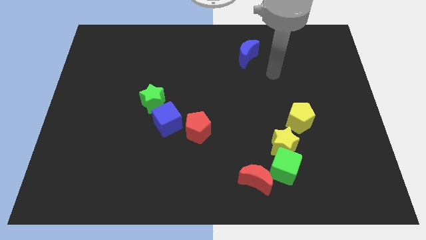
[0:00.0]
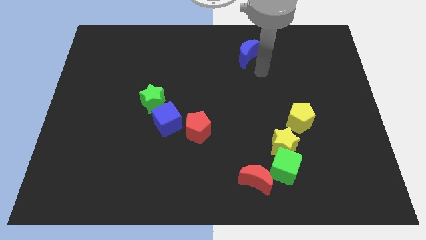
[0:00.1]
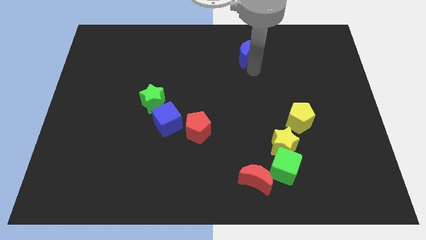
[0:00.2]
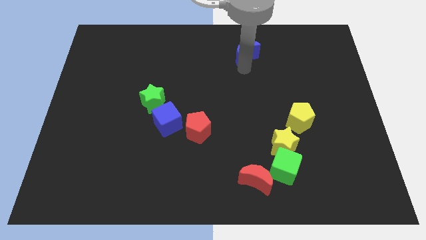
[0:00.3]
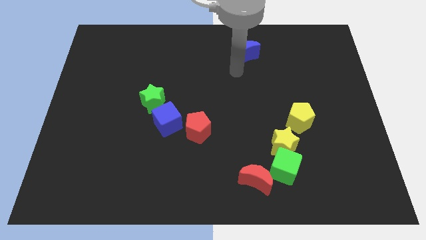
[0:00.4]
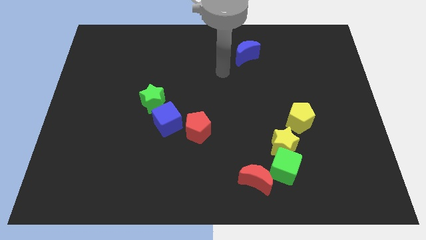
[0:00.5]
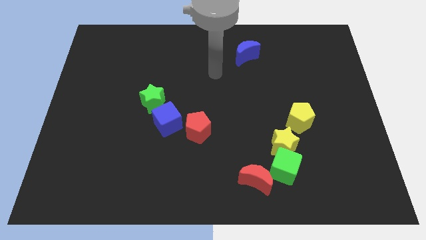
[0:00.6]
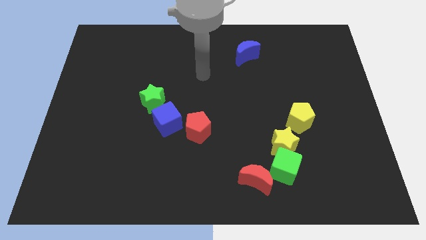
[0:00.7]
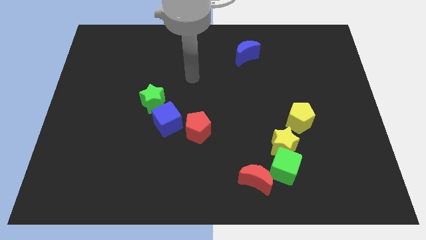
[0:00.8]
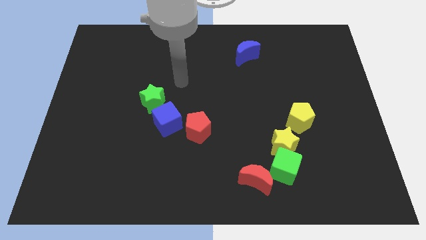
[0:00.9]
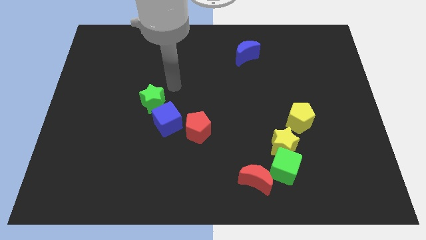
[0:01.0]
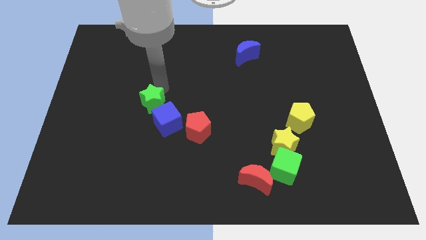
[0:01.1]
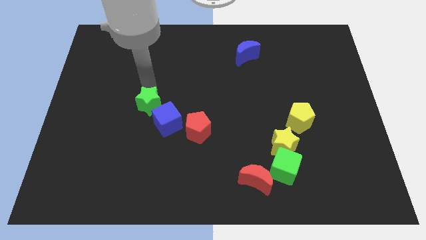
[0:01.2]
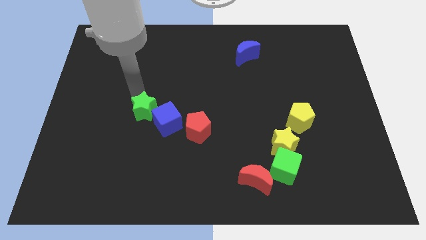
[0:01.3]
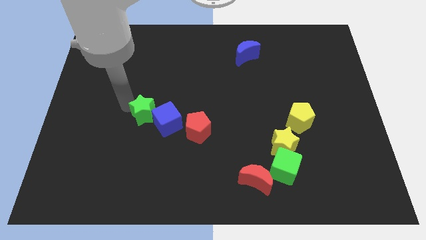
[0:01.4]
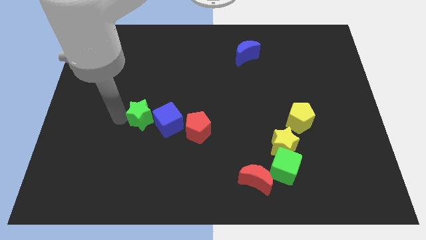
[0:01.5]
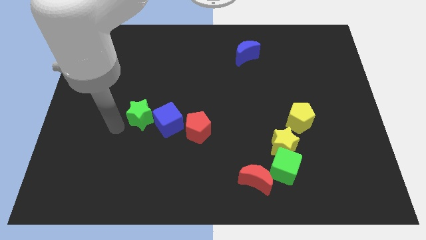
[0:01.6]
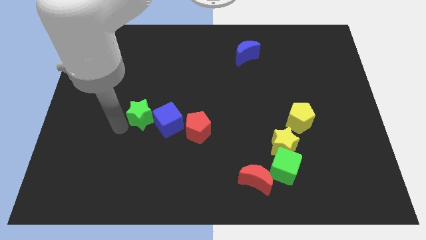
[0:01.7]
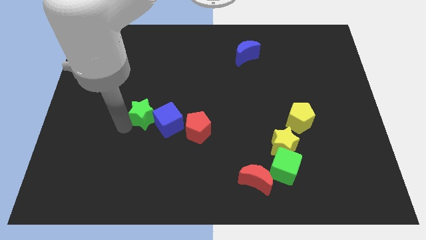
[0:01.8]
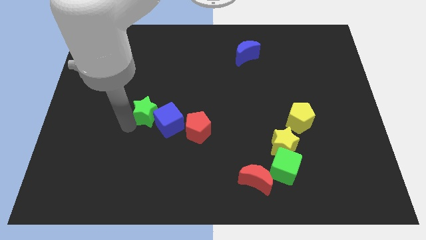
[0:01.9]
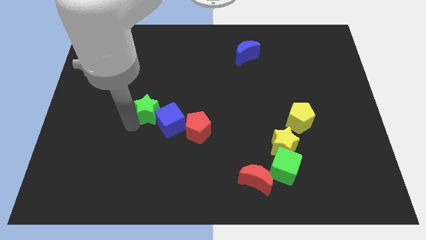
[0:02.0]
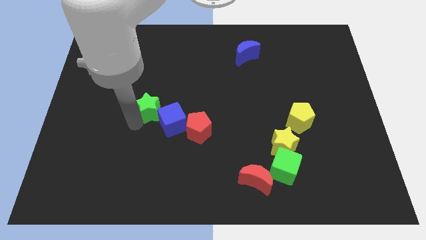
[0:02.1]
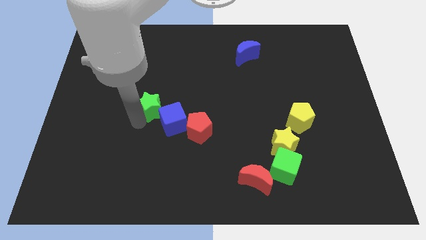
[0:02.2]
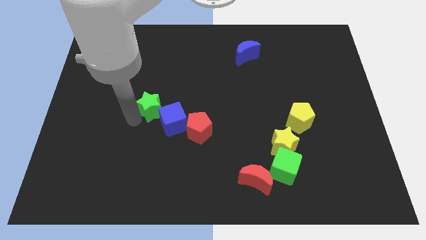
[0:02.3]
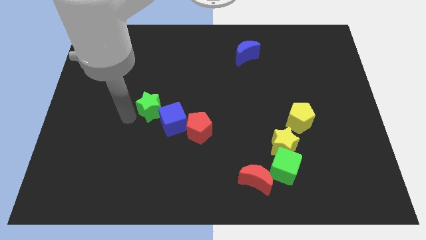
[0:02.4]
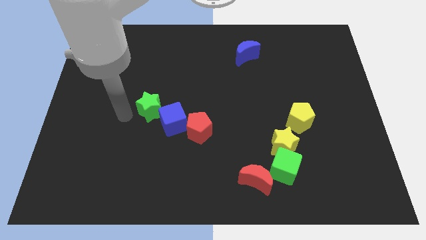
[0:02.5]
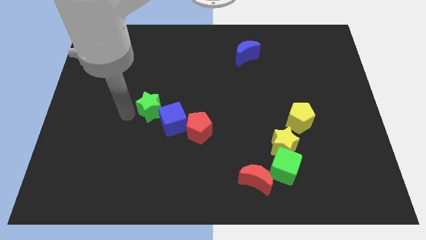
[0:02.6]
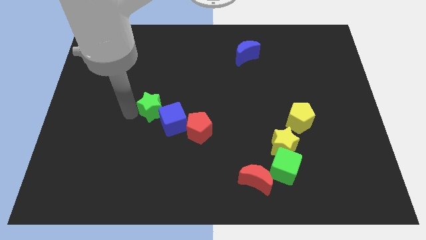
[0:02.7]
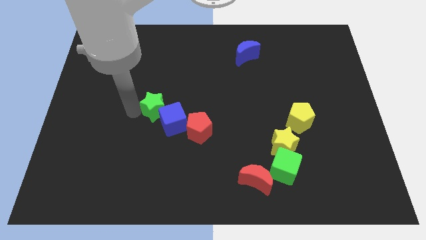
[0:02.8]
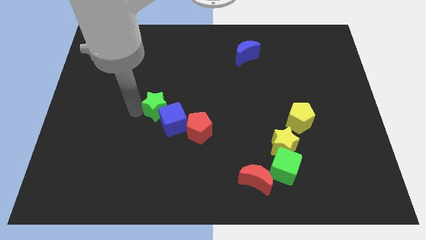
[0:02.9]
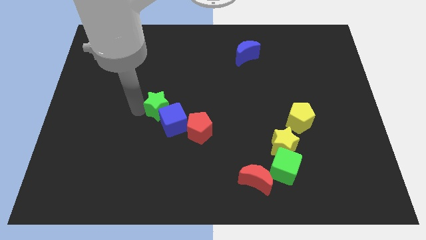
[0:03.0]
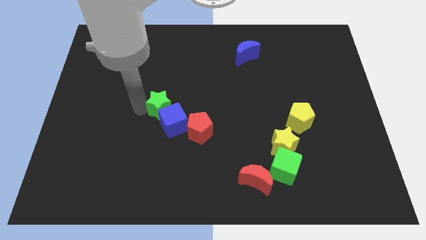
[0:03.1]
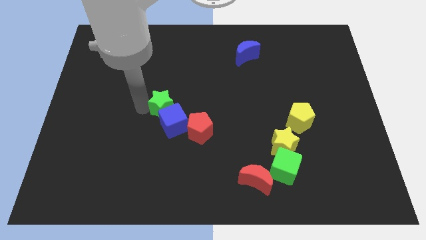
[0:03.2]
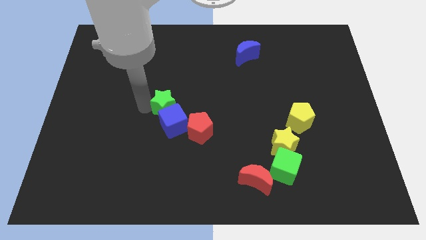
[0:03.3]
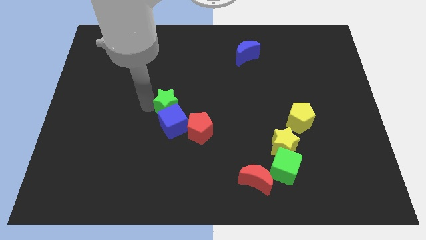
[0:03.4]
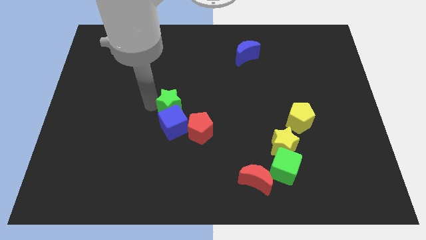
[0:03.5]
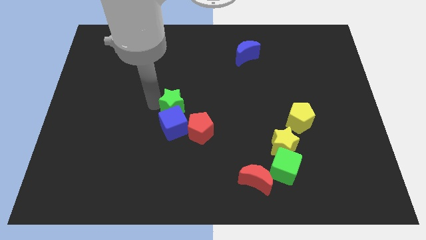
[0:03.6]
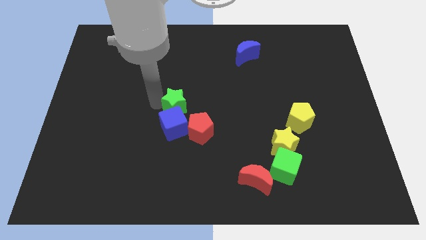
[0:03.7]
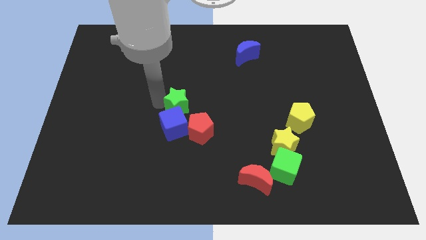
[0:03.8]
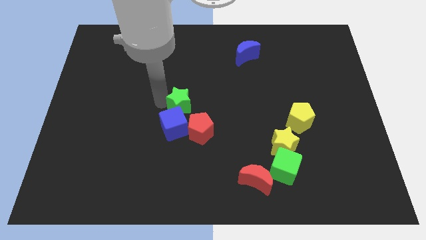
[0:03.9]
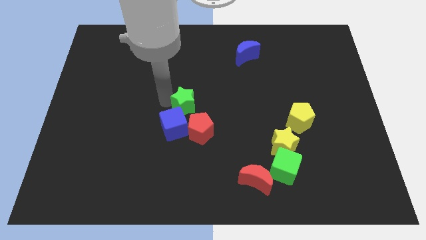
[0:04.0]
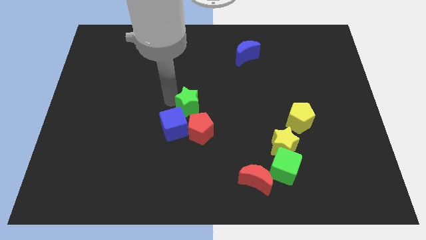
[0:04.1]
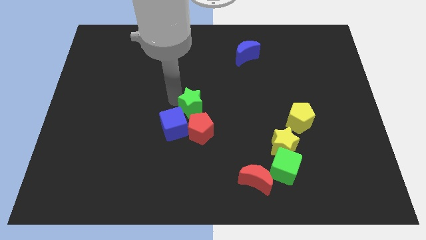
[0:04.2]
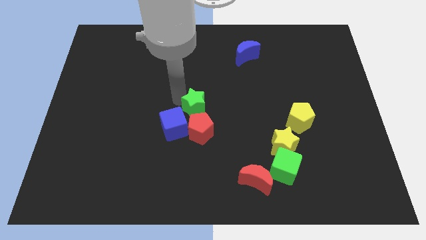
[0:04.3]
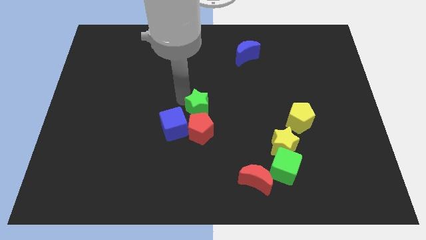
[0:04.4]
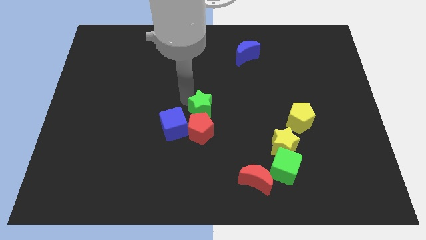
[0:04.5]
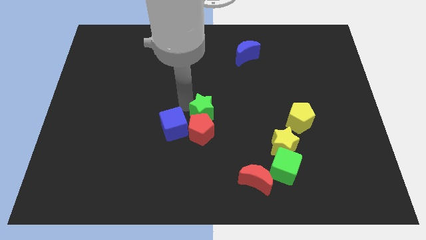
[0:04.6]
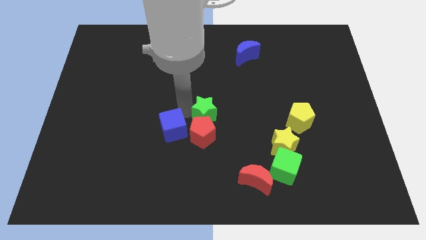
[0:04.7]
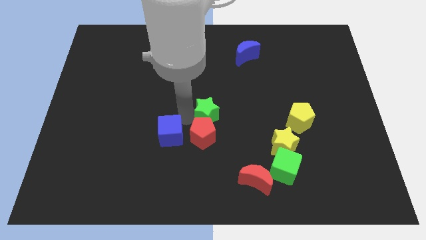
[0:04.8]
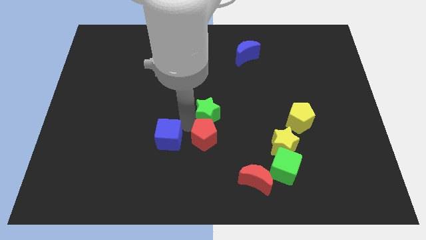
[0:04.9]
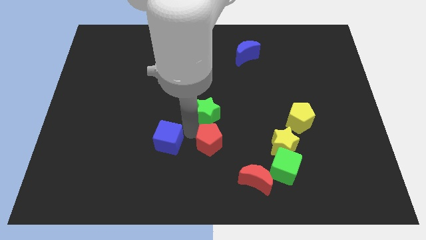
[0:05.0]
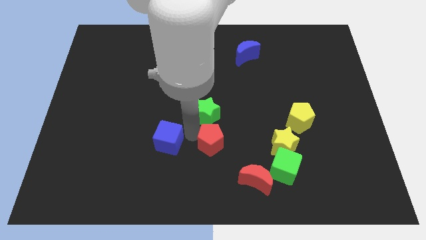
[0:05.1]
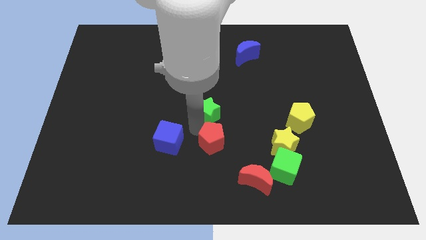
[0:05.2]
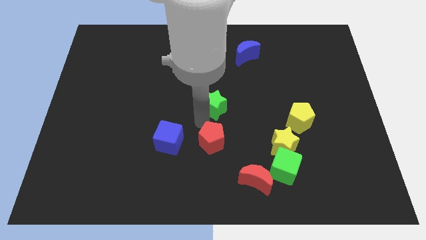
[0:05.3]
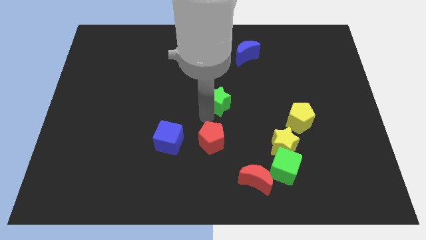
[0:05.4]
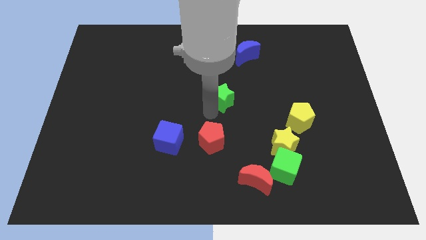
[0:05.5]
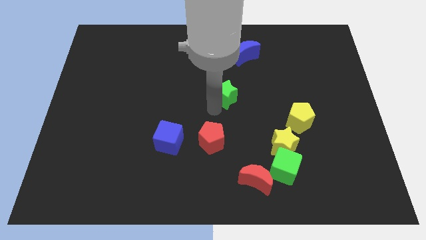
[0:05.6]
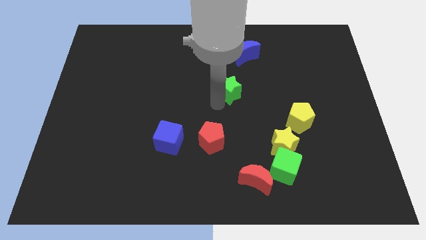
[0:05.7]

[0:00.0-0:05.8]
slide the green star to the bottom side of the blue moon

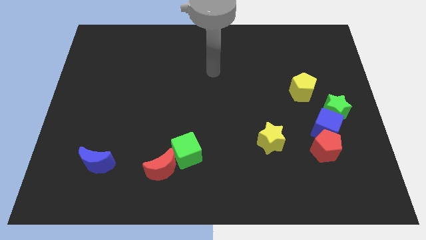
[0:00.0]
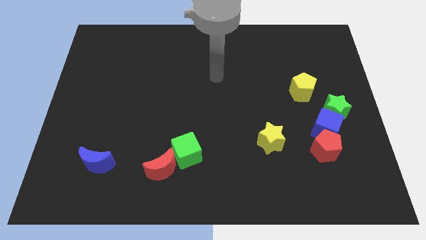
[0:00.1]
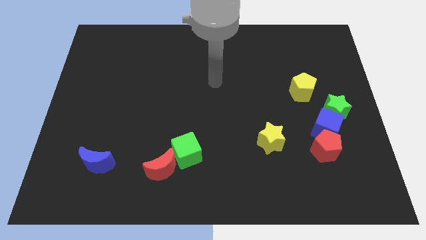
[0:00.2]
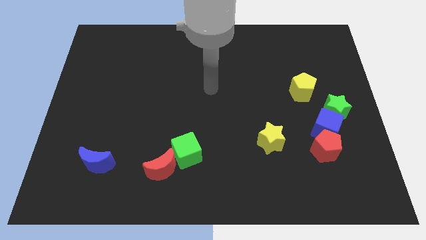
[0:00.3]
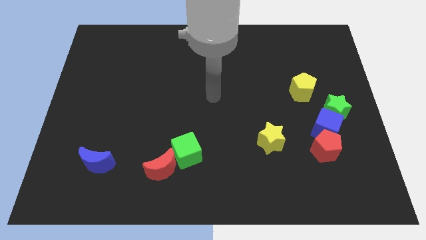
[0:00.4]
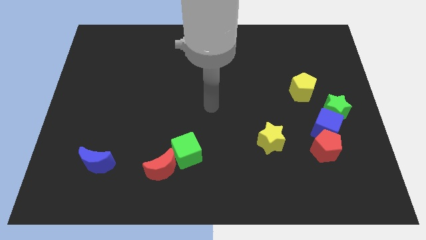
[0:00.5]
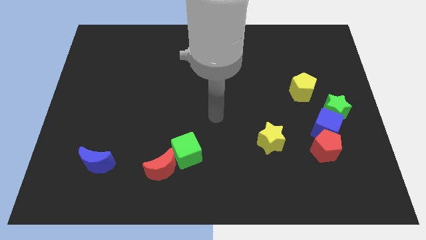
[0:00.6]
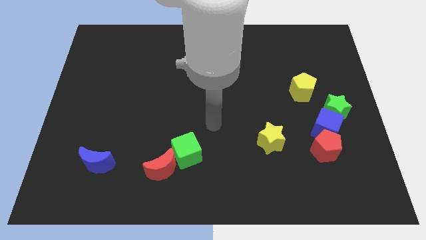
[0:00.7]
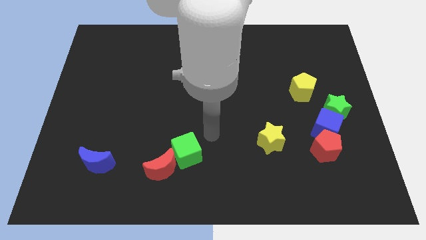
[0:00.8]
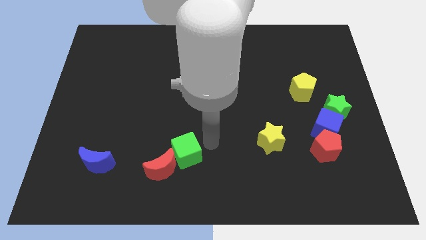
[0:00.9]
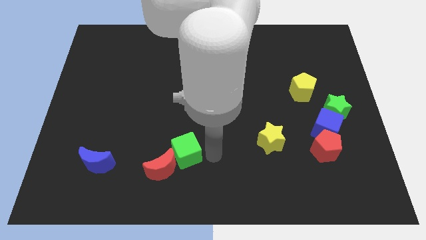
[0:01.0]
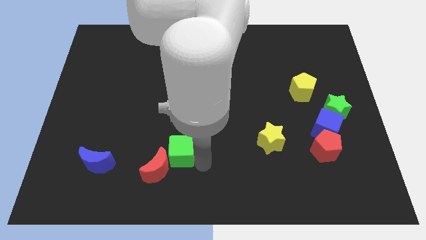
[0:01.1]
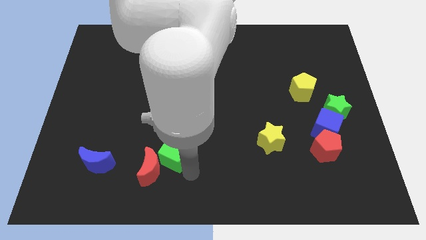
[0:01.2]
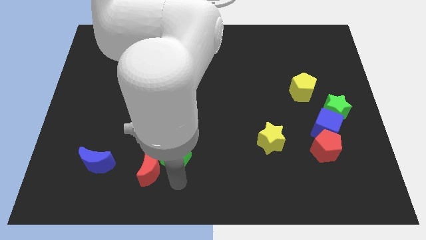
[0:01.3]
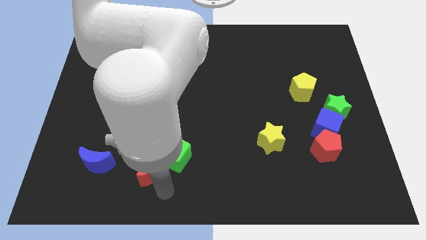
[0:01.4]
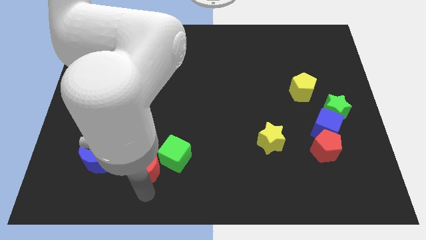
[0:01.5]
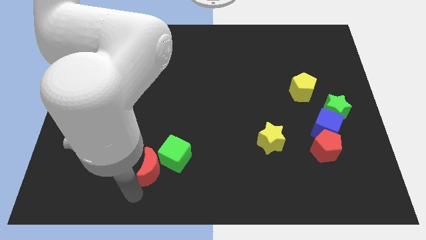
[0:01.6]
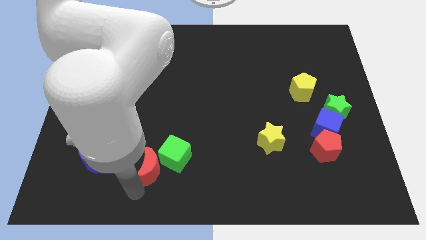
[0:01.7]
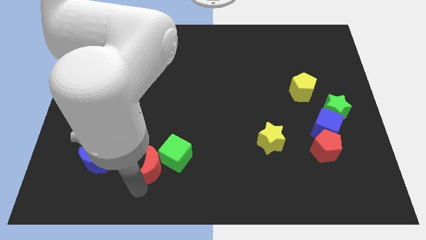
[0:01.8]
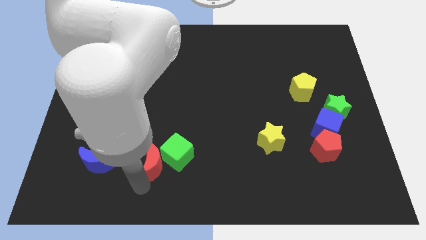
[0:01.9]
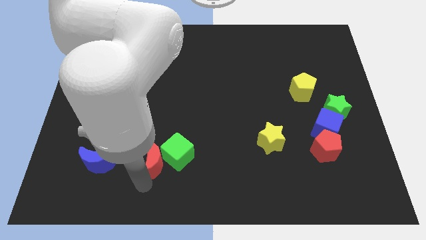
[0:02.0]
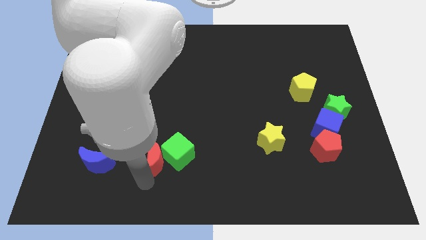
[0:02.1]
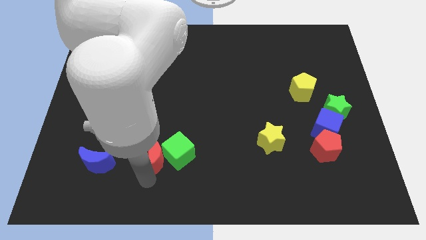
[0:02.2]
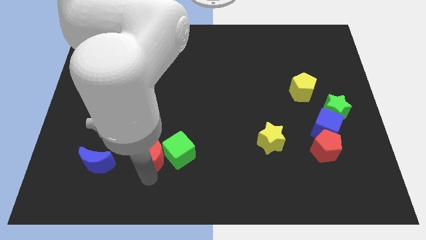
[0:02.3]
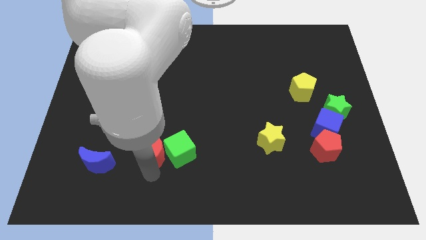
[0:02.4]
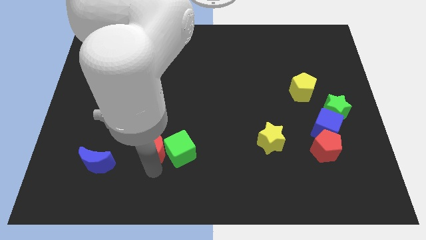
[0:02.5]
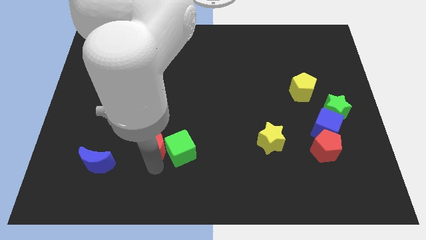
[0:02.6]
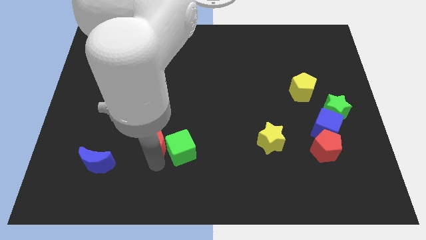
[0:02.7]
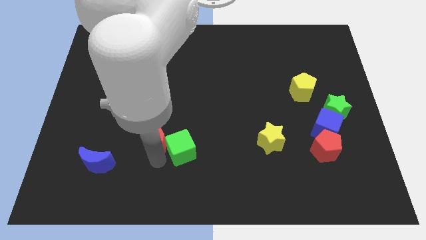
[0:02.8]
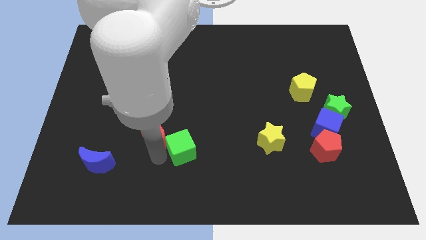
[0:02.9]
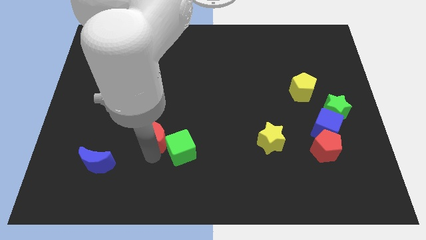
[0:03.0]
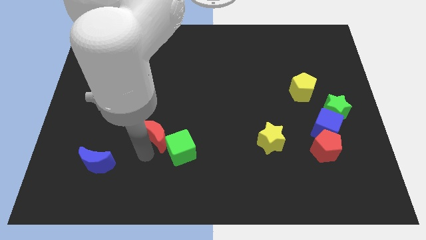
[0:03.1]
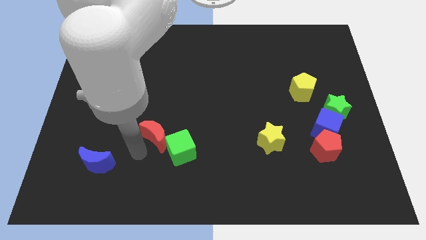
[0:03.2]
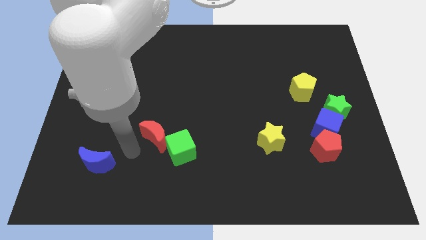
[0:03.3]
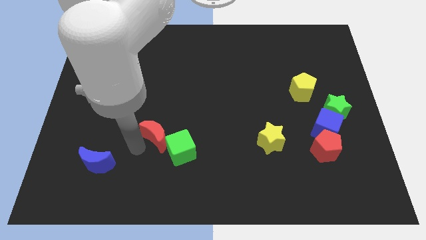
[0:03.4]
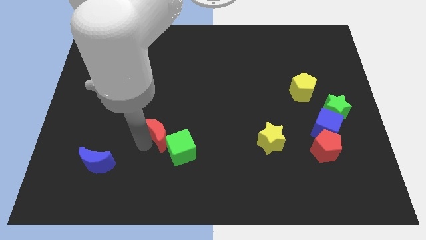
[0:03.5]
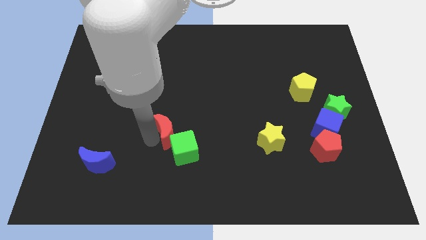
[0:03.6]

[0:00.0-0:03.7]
slide the red moon above the green cube
